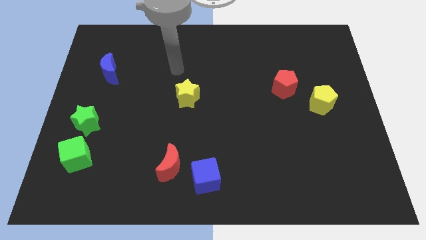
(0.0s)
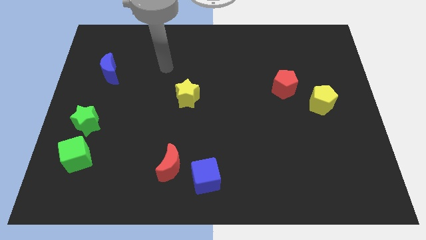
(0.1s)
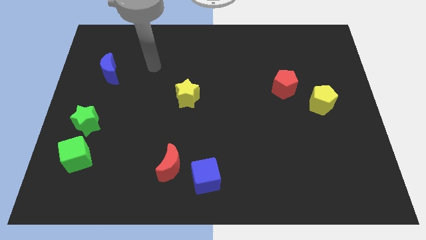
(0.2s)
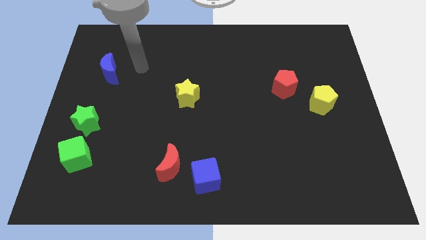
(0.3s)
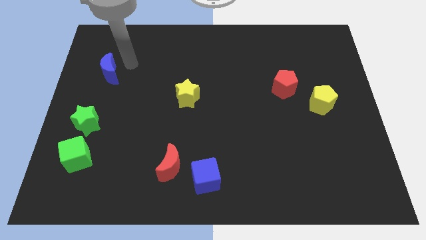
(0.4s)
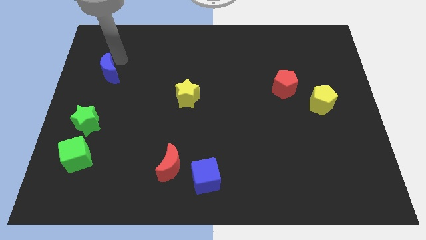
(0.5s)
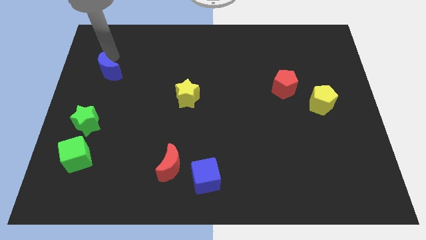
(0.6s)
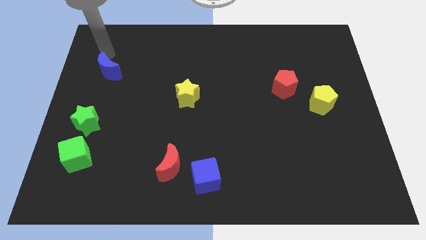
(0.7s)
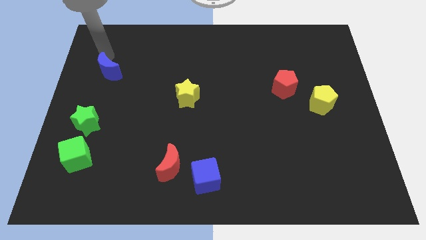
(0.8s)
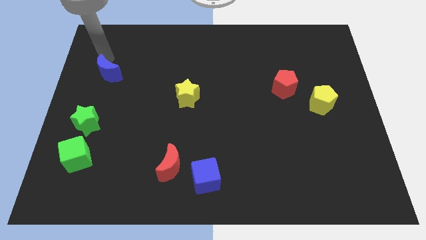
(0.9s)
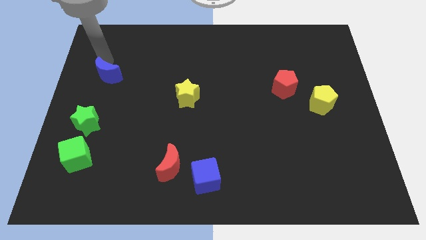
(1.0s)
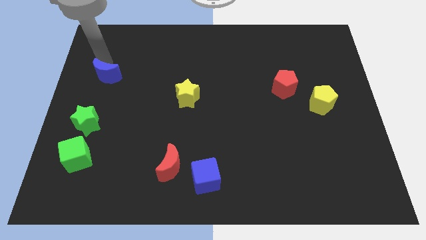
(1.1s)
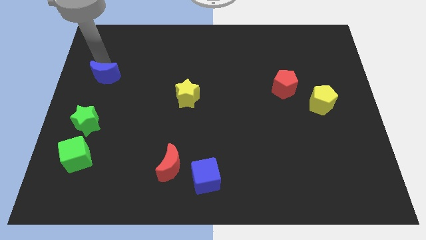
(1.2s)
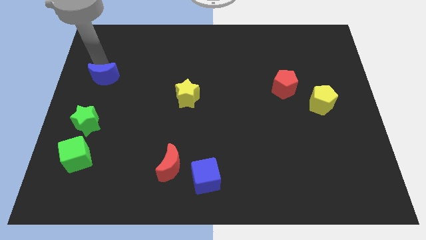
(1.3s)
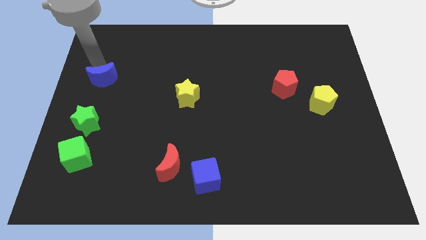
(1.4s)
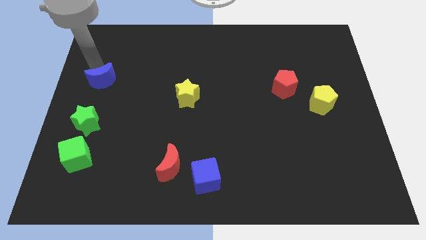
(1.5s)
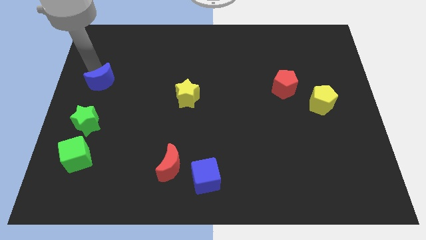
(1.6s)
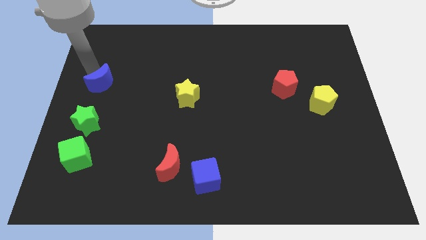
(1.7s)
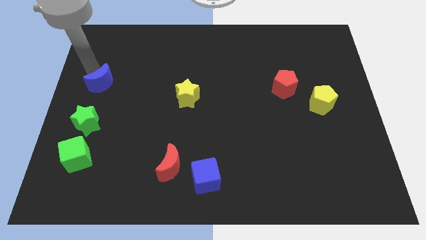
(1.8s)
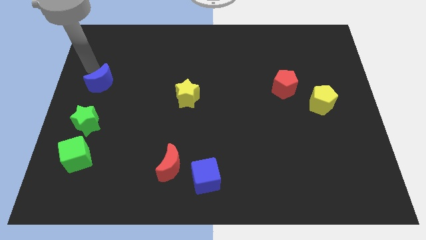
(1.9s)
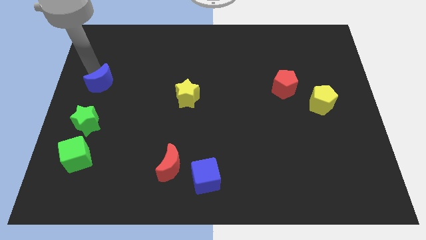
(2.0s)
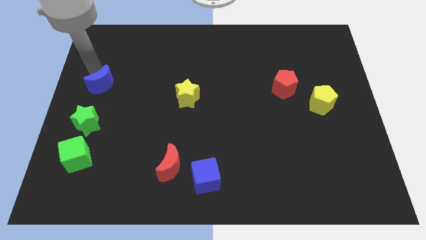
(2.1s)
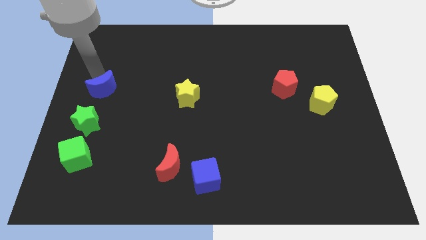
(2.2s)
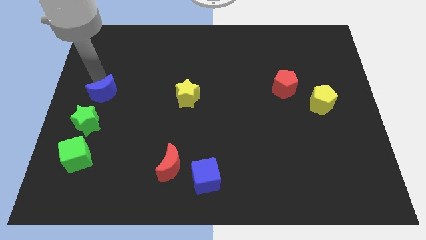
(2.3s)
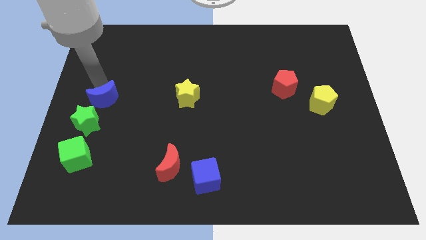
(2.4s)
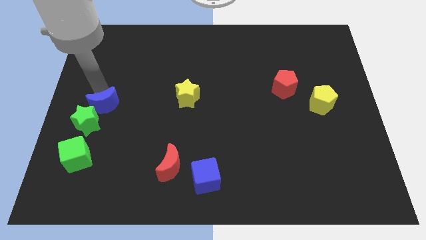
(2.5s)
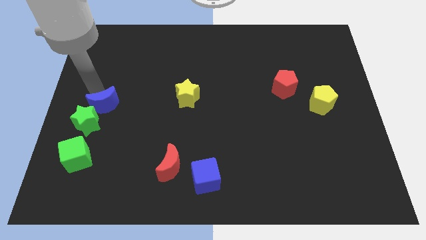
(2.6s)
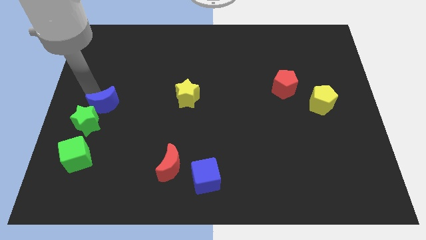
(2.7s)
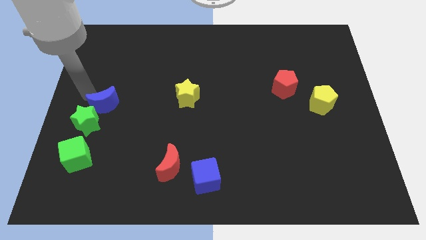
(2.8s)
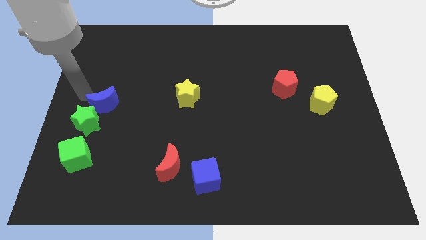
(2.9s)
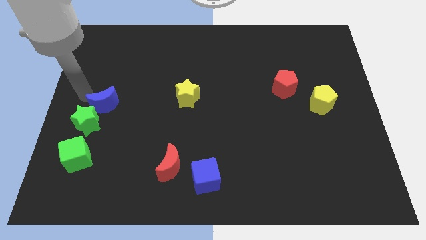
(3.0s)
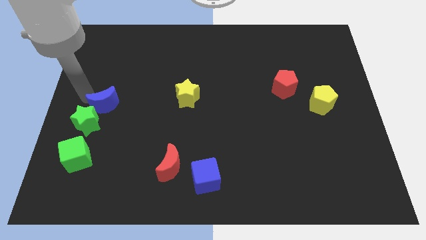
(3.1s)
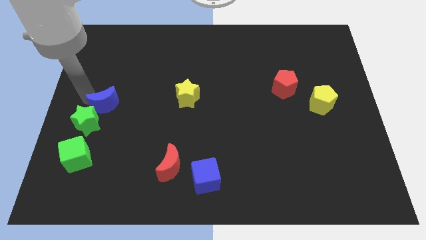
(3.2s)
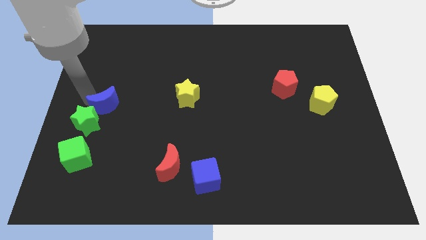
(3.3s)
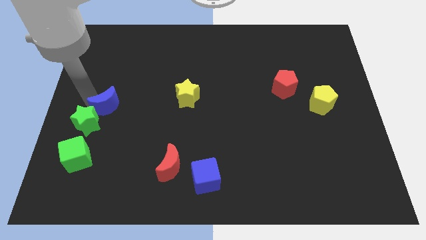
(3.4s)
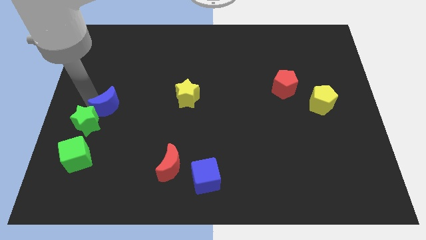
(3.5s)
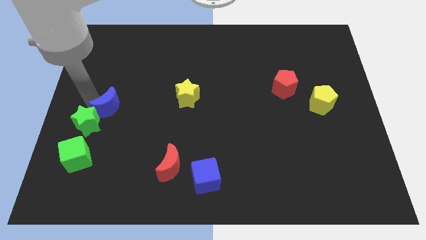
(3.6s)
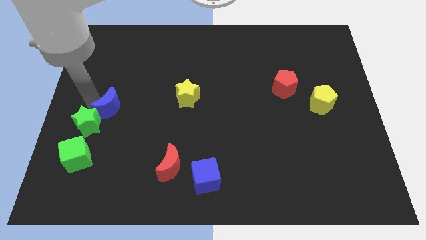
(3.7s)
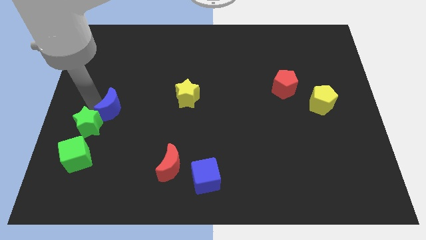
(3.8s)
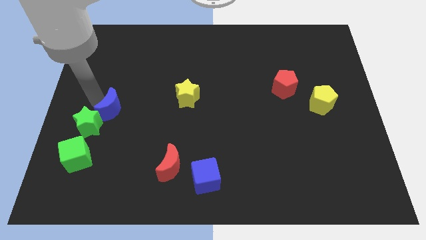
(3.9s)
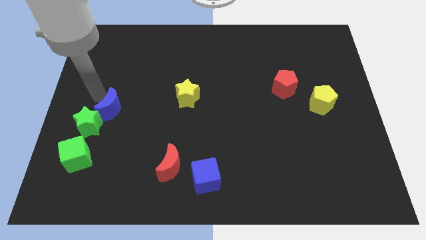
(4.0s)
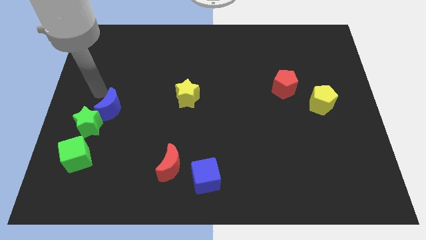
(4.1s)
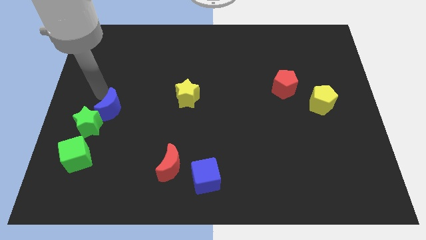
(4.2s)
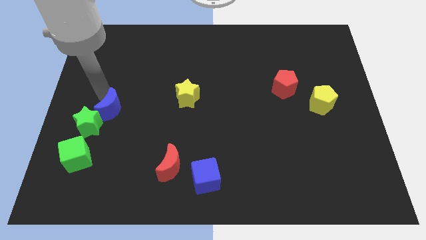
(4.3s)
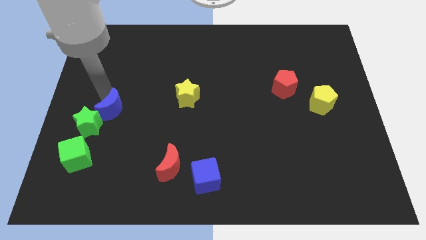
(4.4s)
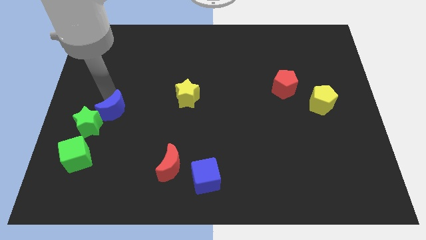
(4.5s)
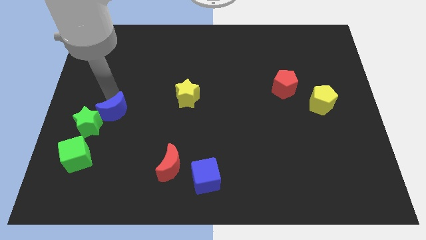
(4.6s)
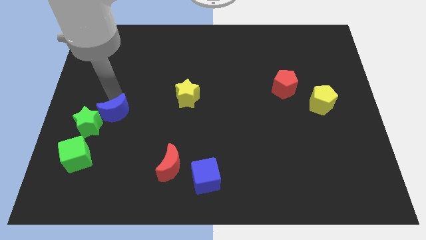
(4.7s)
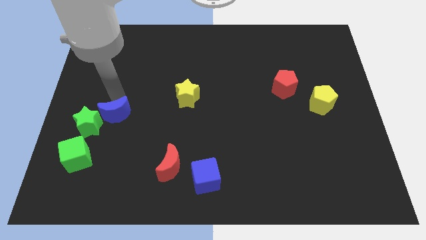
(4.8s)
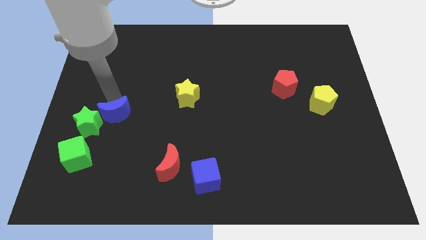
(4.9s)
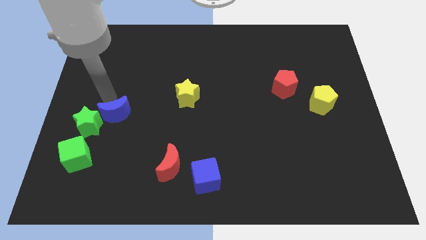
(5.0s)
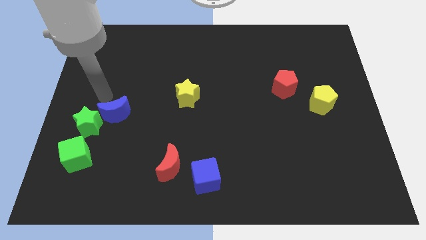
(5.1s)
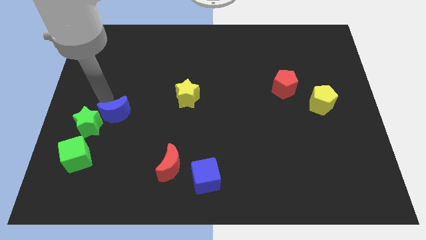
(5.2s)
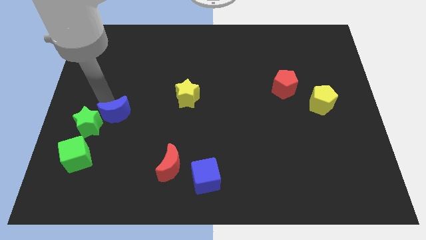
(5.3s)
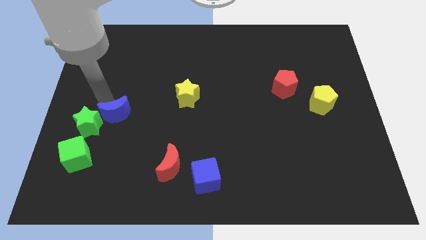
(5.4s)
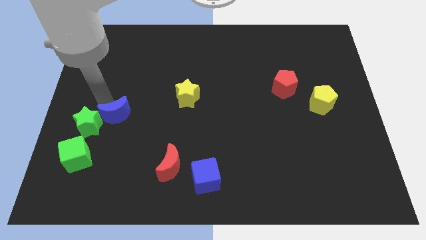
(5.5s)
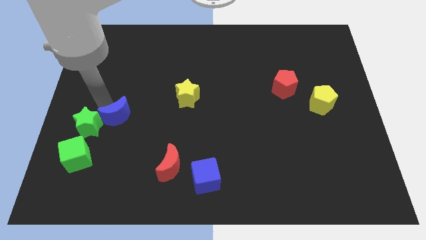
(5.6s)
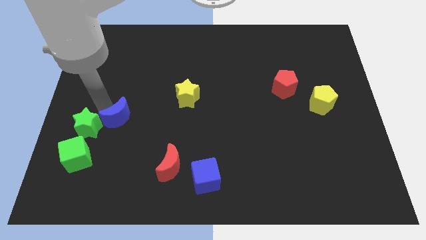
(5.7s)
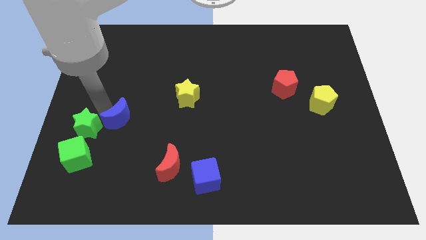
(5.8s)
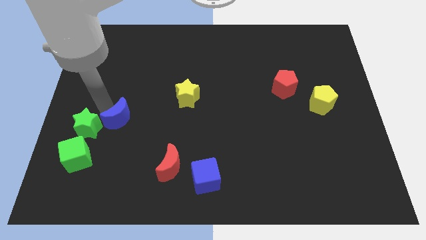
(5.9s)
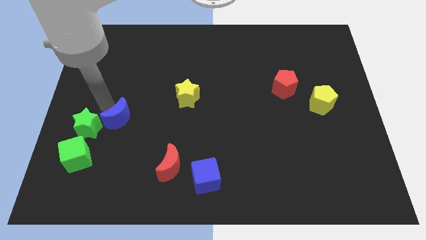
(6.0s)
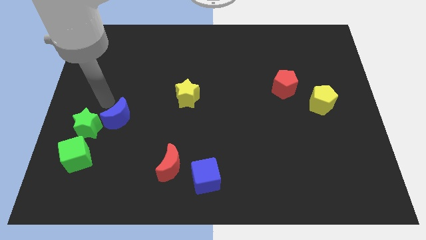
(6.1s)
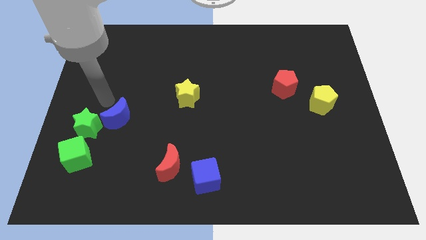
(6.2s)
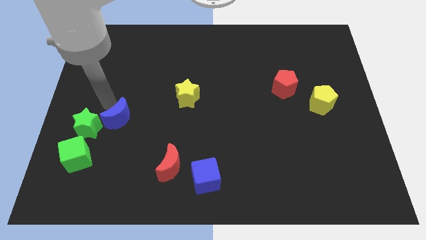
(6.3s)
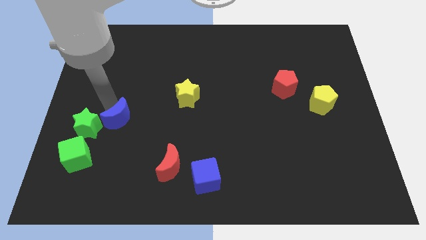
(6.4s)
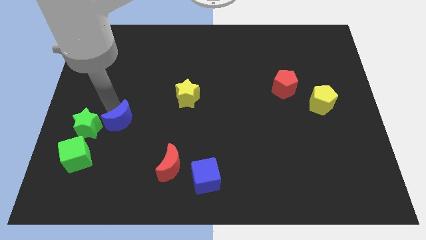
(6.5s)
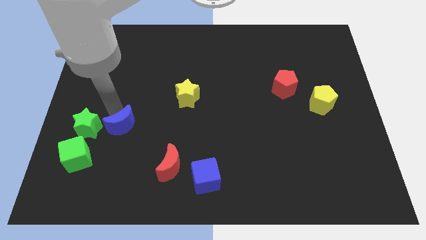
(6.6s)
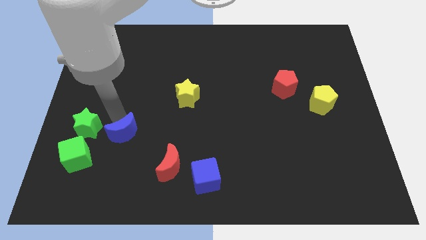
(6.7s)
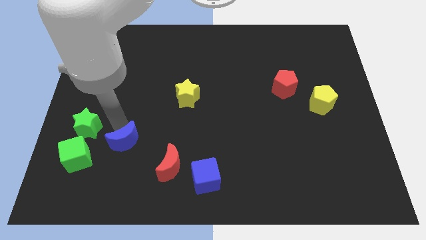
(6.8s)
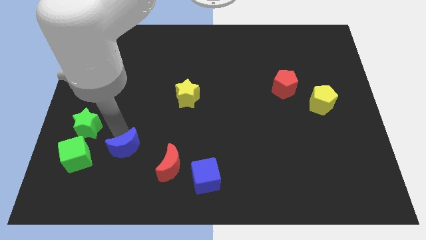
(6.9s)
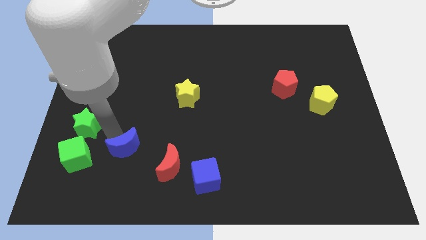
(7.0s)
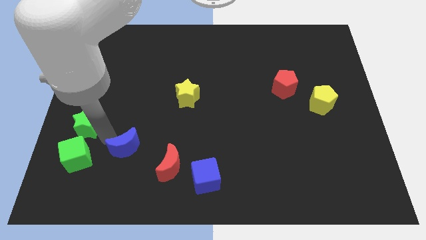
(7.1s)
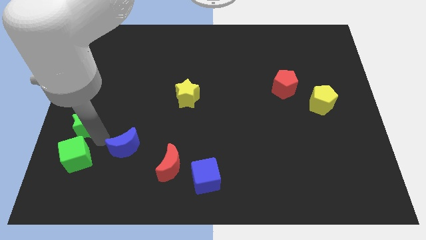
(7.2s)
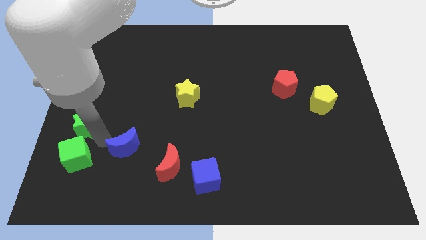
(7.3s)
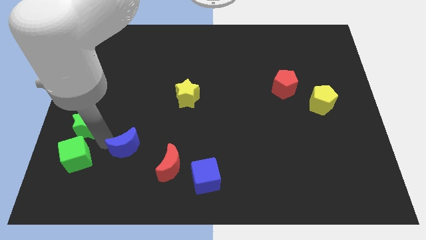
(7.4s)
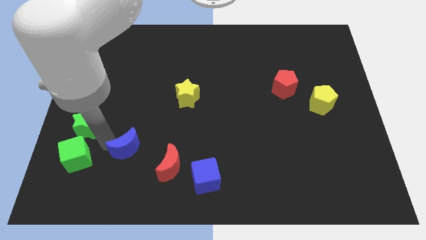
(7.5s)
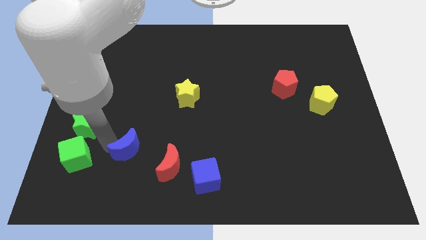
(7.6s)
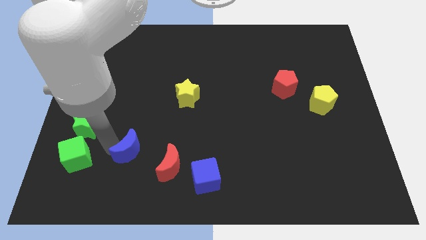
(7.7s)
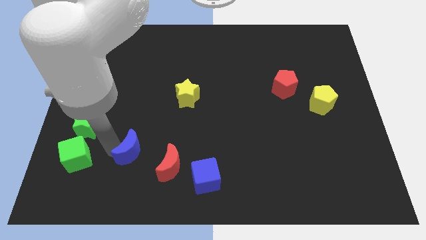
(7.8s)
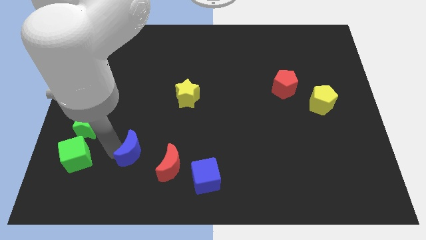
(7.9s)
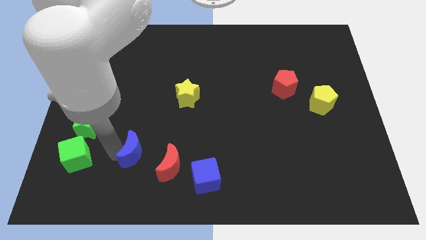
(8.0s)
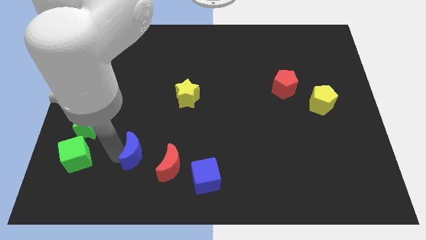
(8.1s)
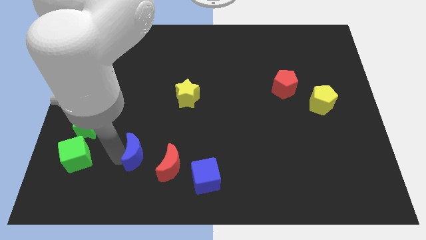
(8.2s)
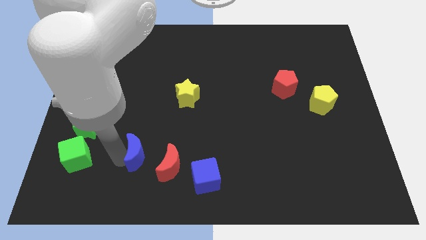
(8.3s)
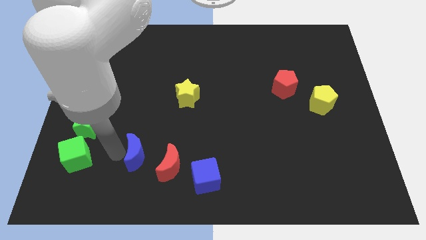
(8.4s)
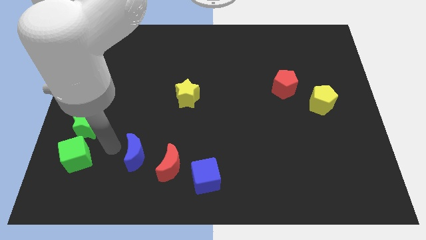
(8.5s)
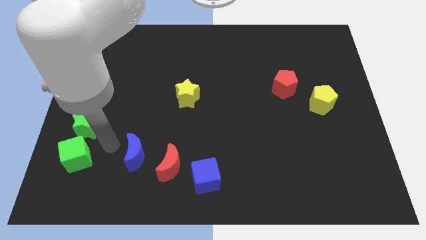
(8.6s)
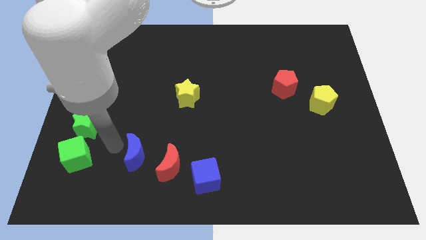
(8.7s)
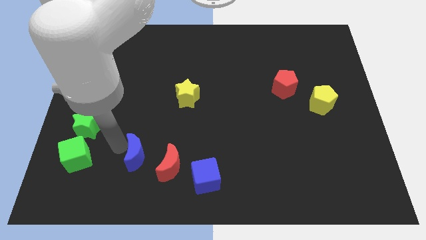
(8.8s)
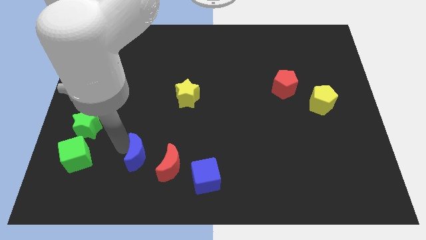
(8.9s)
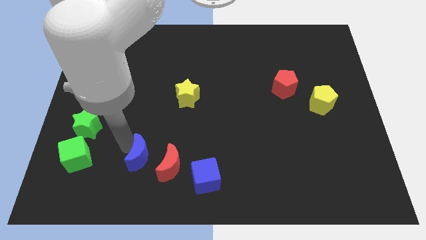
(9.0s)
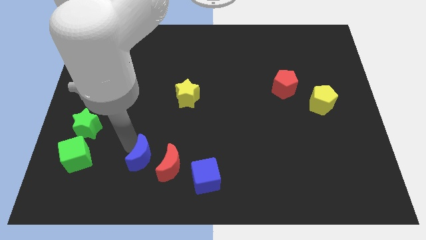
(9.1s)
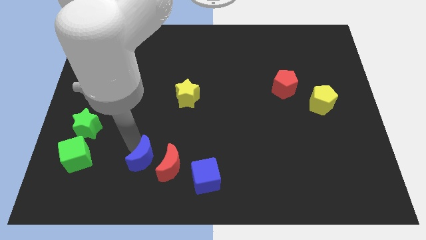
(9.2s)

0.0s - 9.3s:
put the blue moon close to the red moon
